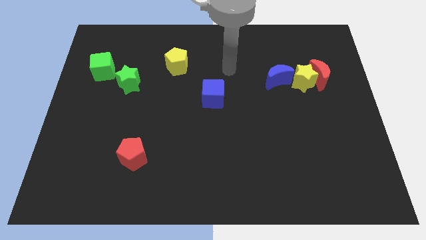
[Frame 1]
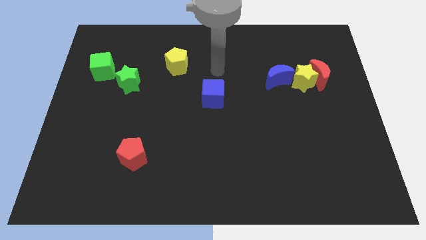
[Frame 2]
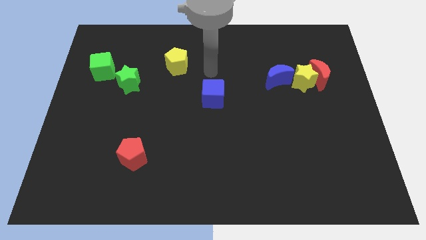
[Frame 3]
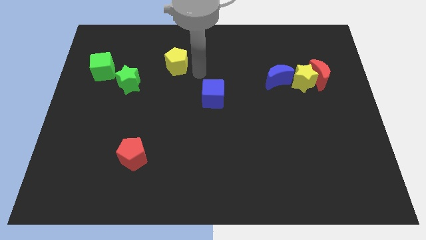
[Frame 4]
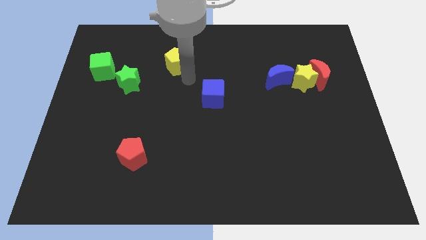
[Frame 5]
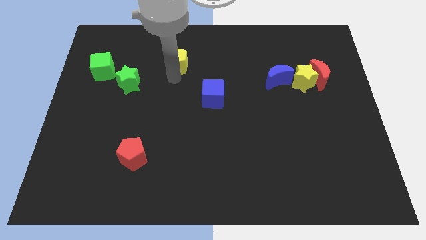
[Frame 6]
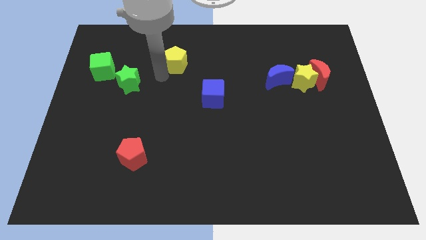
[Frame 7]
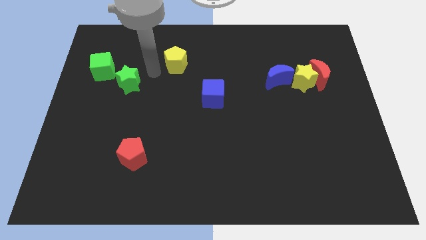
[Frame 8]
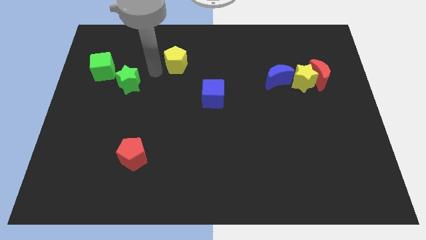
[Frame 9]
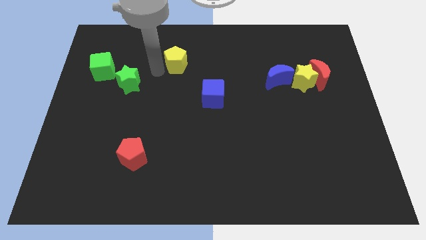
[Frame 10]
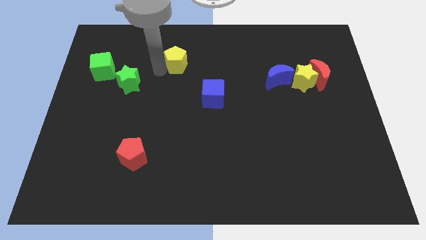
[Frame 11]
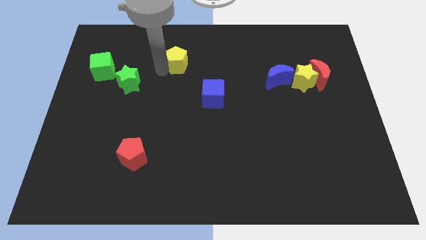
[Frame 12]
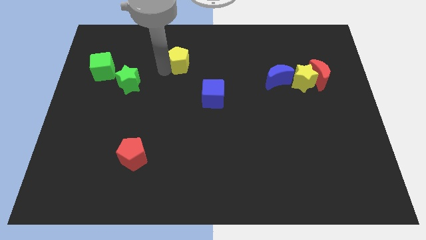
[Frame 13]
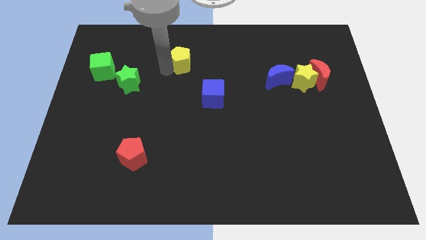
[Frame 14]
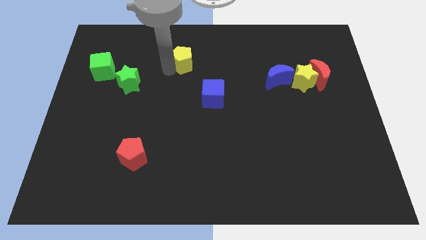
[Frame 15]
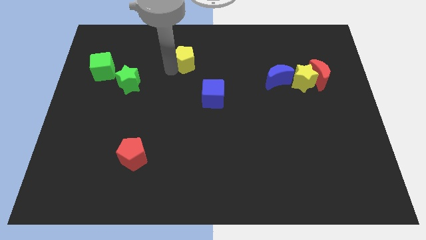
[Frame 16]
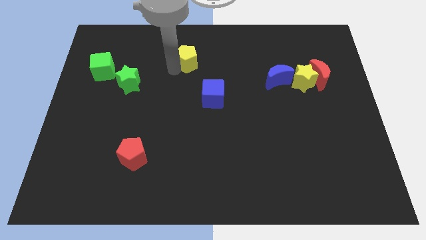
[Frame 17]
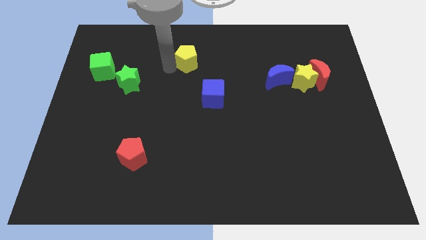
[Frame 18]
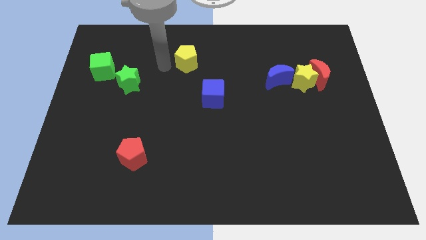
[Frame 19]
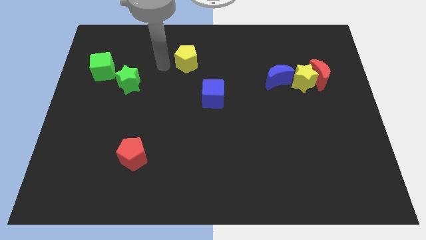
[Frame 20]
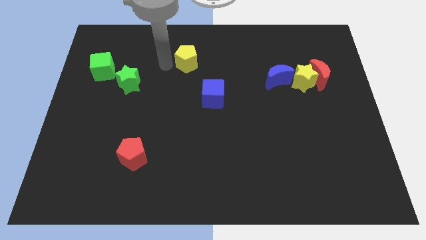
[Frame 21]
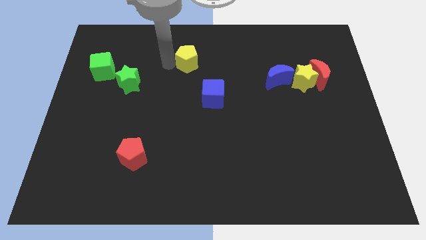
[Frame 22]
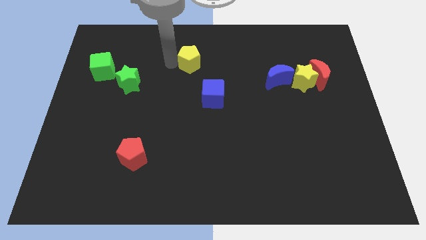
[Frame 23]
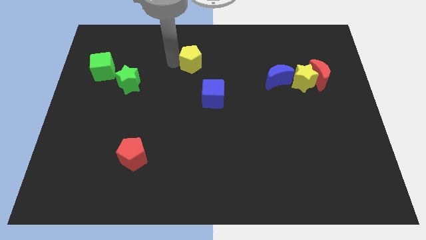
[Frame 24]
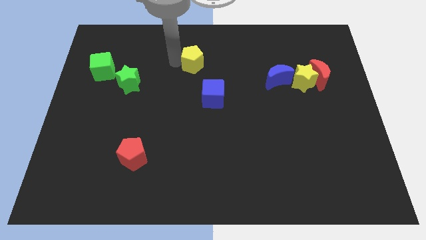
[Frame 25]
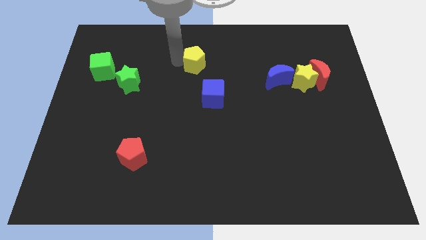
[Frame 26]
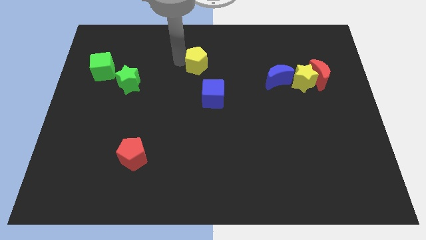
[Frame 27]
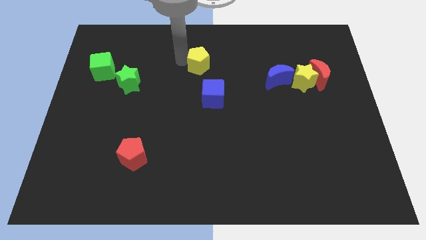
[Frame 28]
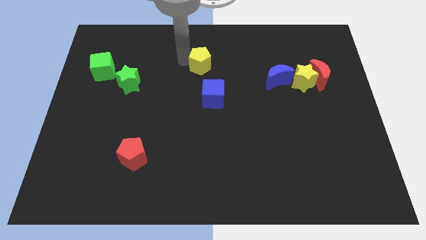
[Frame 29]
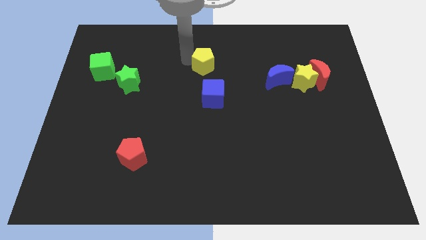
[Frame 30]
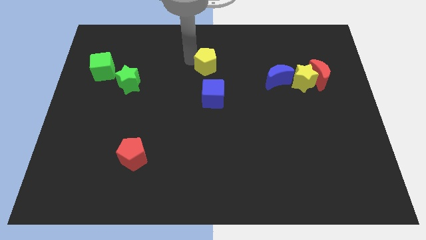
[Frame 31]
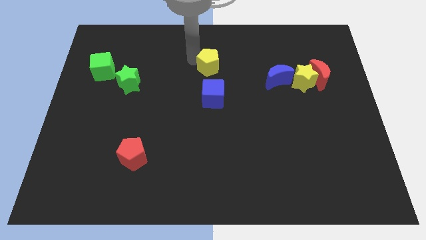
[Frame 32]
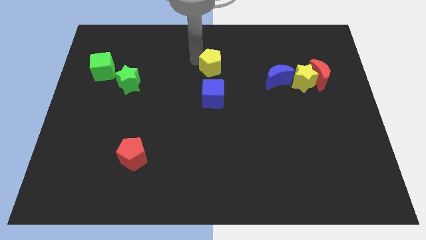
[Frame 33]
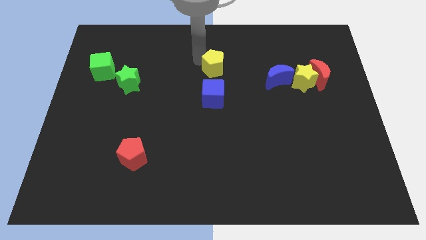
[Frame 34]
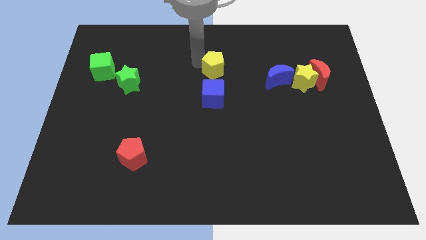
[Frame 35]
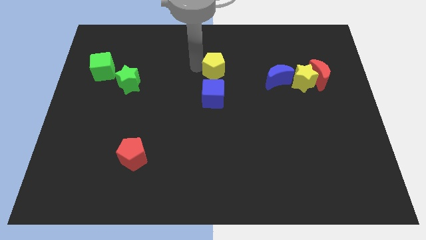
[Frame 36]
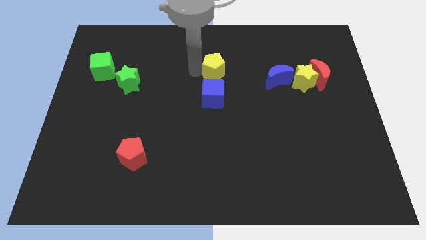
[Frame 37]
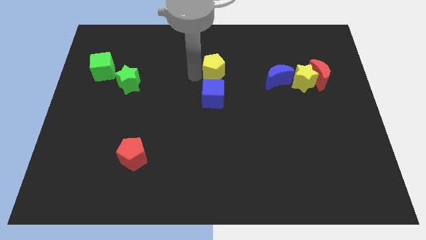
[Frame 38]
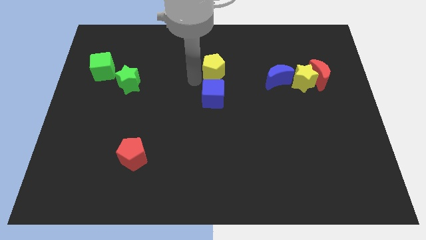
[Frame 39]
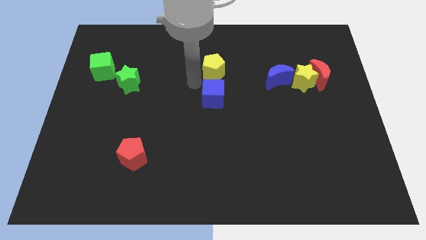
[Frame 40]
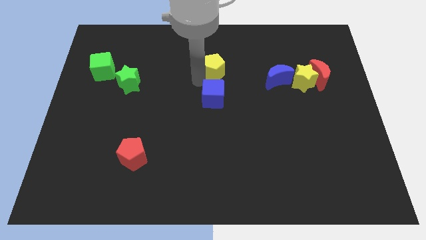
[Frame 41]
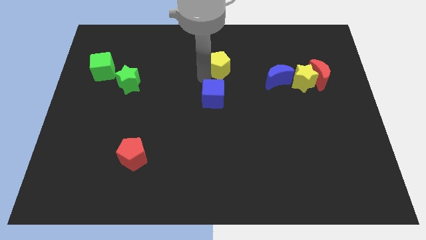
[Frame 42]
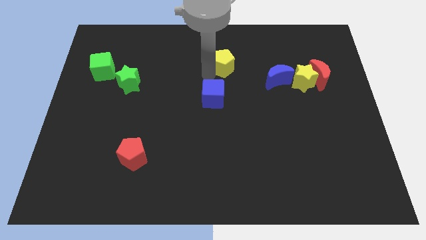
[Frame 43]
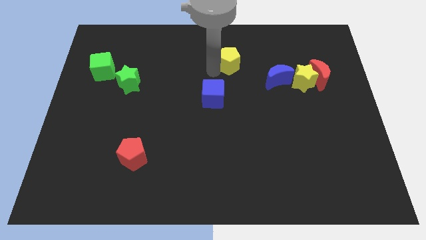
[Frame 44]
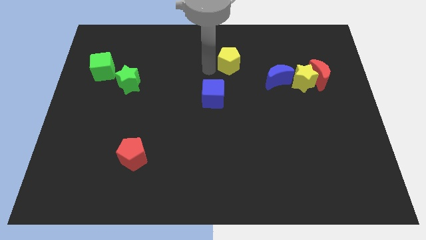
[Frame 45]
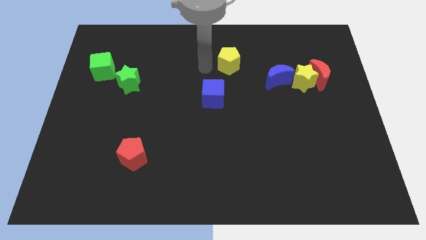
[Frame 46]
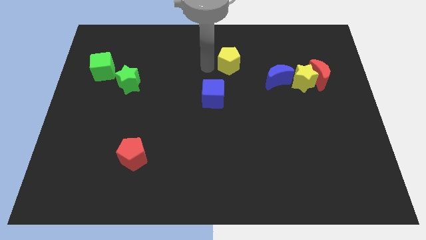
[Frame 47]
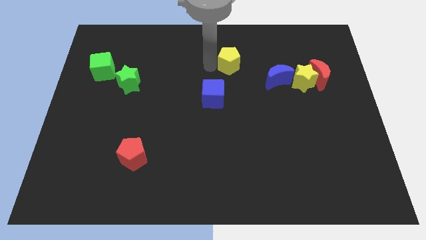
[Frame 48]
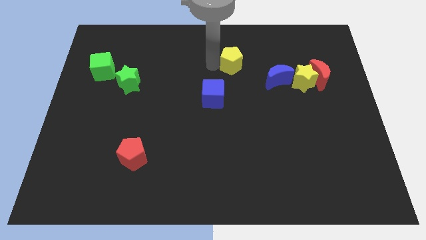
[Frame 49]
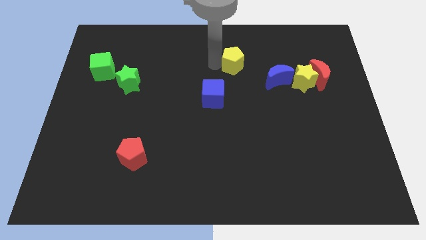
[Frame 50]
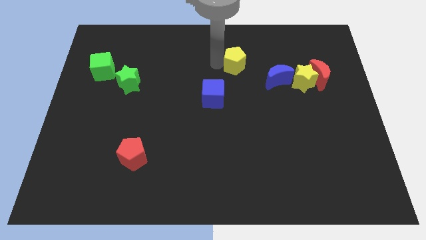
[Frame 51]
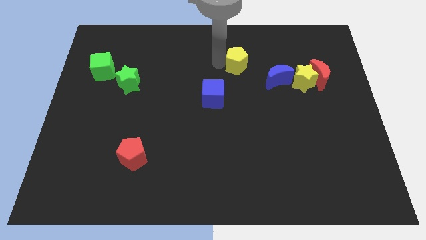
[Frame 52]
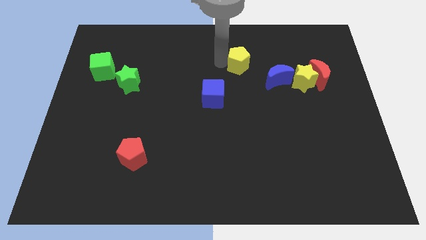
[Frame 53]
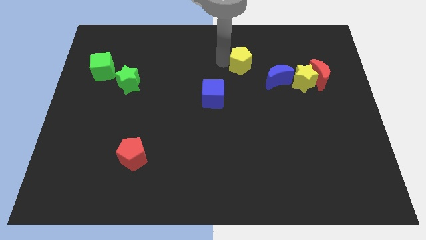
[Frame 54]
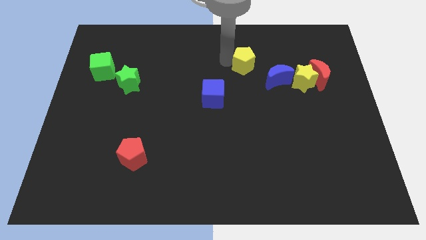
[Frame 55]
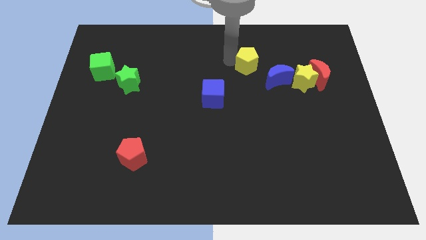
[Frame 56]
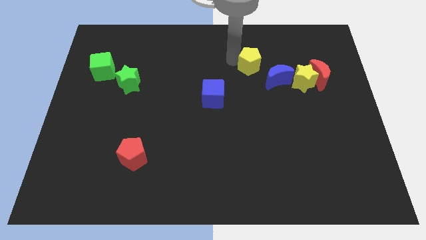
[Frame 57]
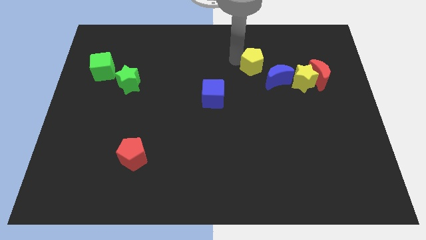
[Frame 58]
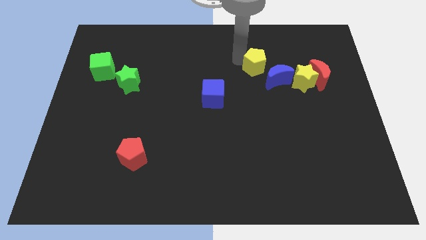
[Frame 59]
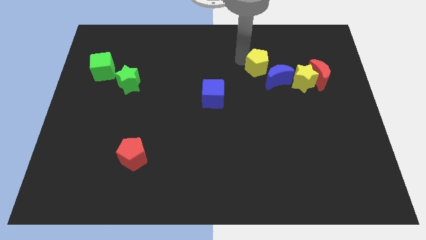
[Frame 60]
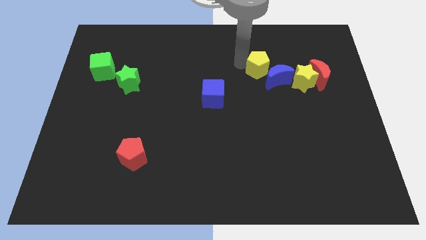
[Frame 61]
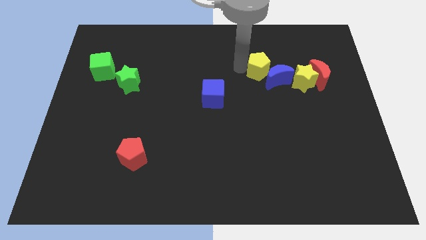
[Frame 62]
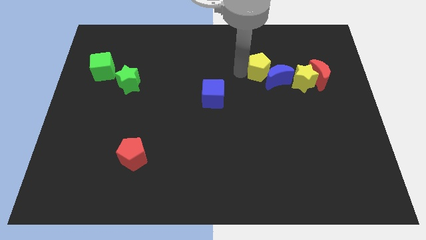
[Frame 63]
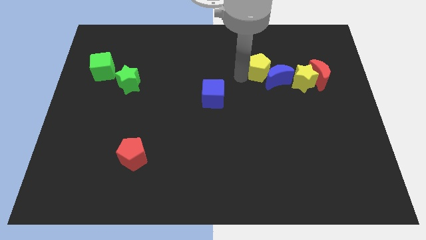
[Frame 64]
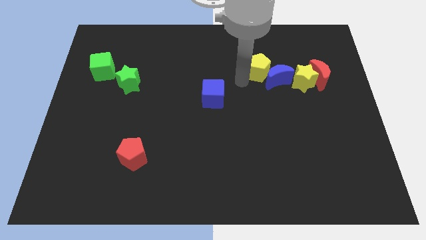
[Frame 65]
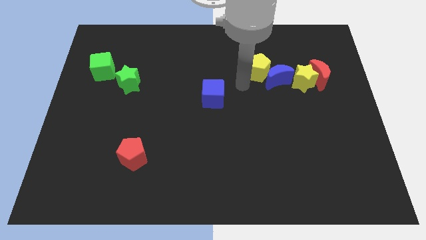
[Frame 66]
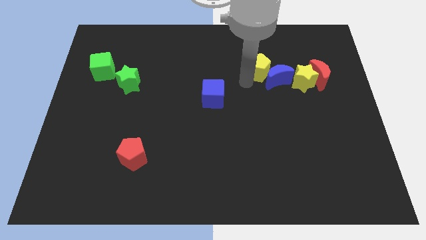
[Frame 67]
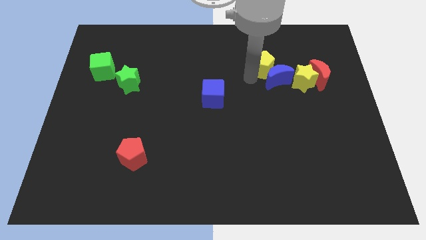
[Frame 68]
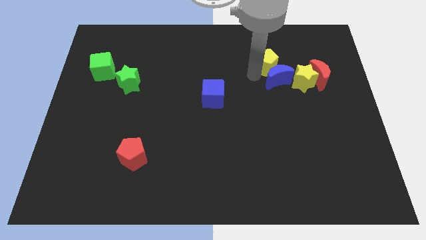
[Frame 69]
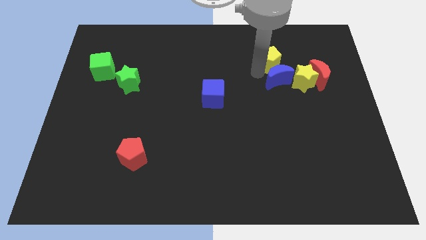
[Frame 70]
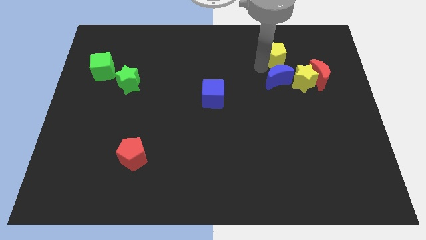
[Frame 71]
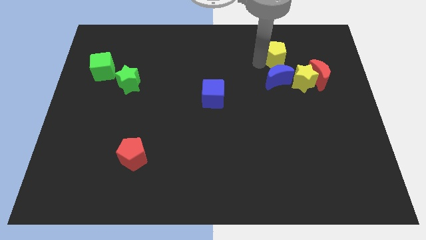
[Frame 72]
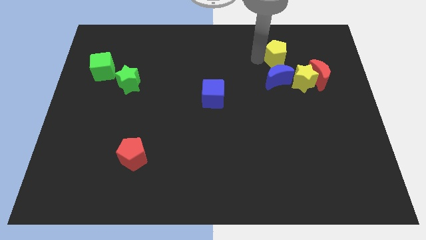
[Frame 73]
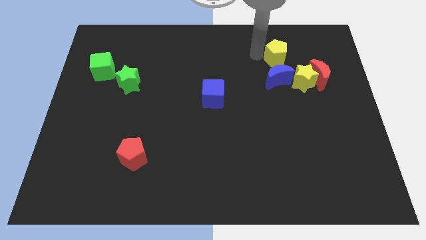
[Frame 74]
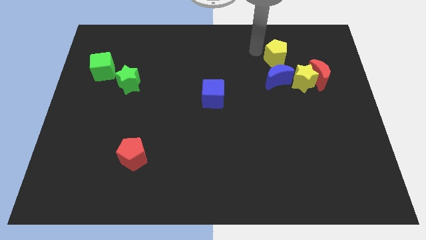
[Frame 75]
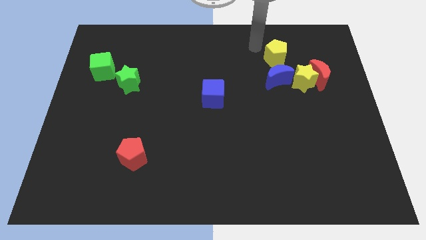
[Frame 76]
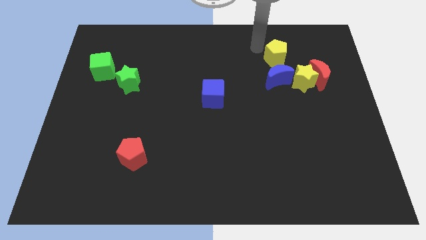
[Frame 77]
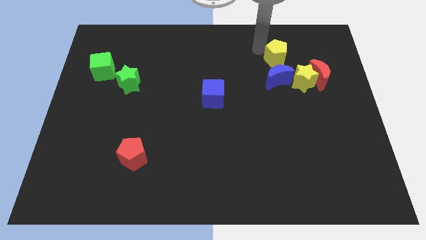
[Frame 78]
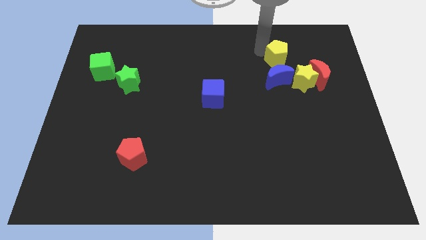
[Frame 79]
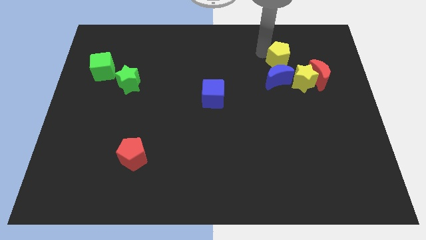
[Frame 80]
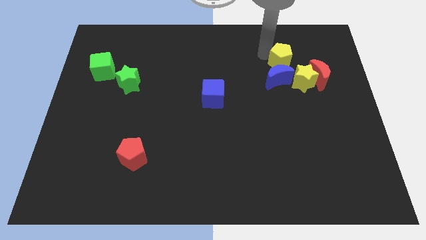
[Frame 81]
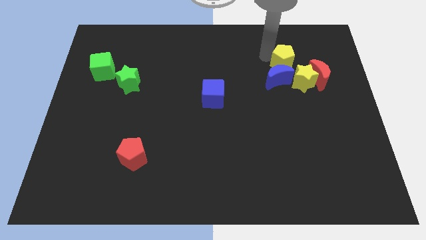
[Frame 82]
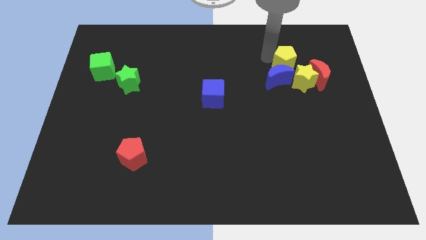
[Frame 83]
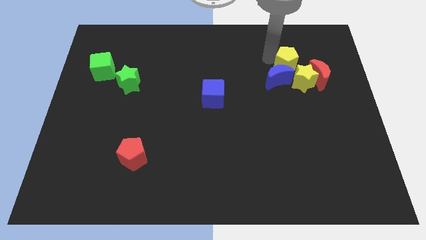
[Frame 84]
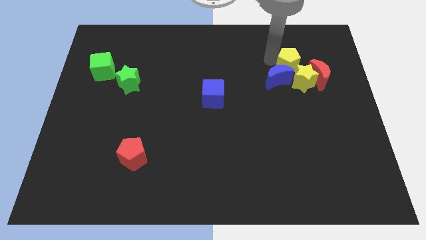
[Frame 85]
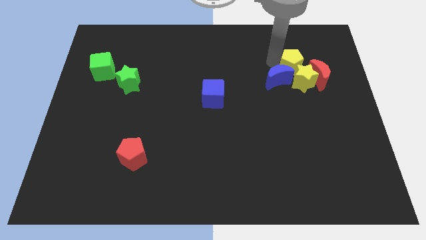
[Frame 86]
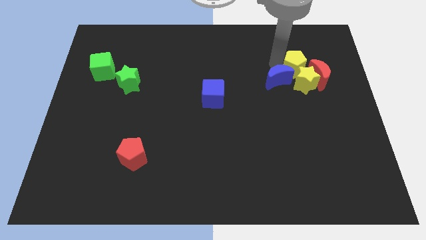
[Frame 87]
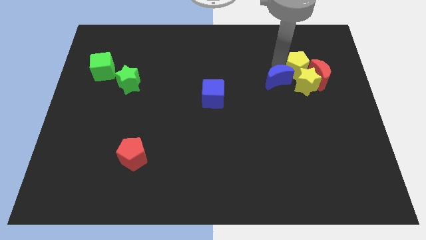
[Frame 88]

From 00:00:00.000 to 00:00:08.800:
put the yellow pentagon close to the red moon
